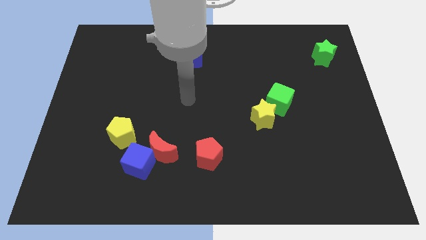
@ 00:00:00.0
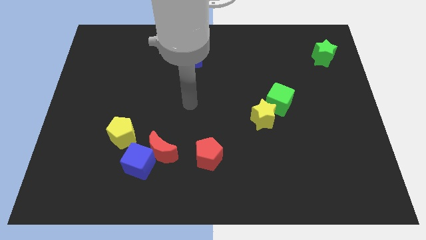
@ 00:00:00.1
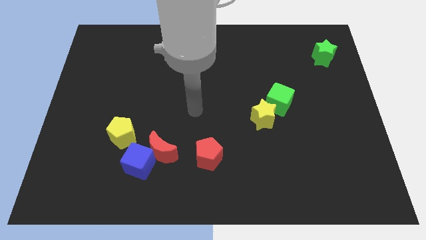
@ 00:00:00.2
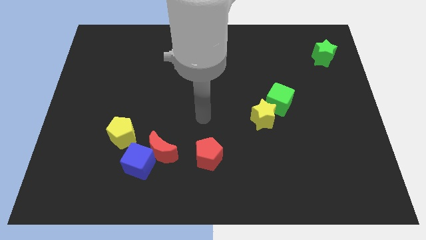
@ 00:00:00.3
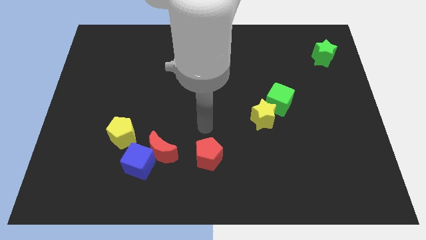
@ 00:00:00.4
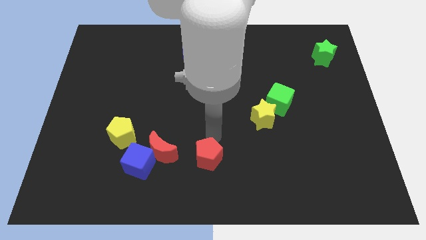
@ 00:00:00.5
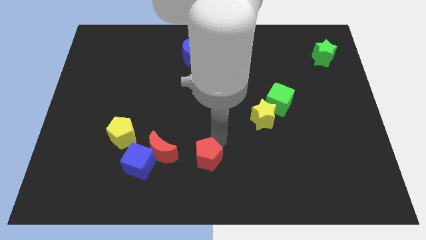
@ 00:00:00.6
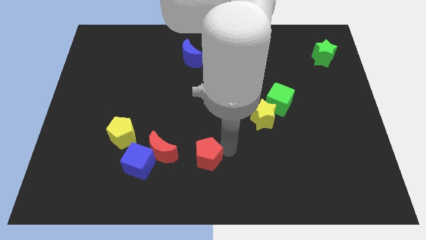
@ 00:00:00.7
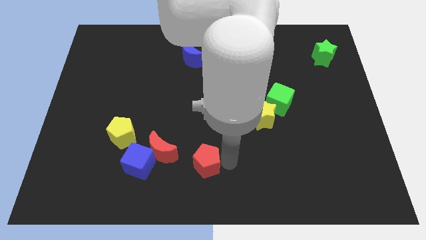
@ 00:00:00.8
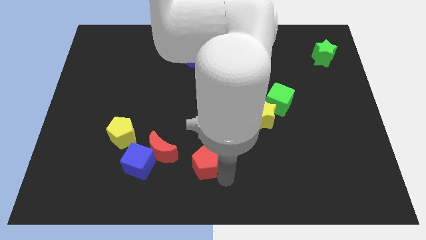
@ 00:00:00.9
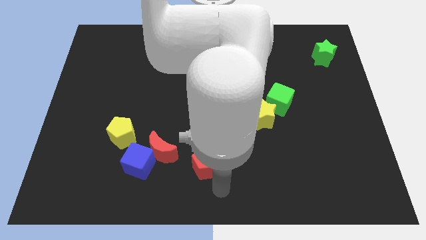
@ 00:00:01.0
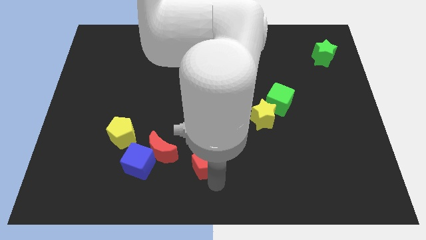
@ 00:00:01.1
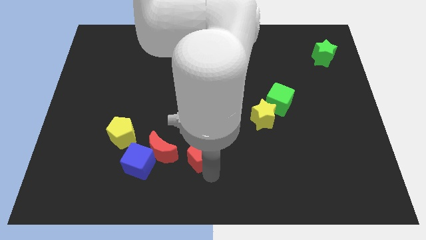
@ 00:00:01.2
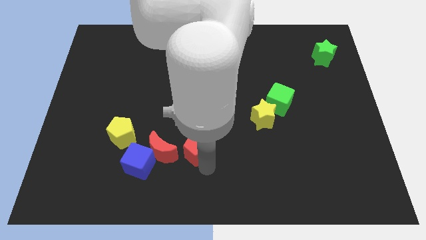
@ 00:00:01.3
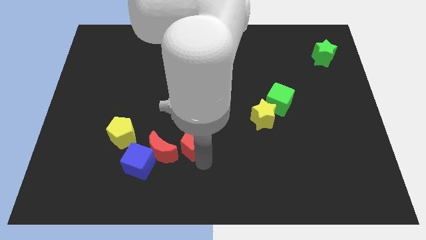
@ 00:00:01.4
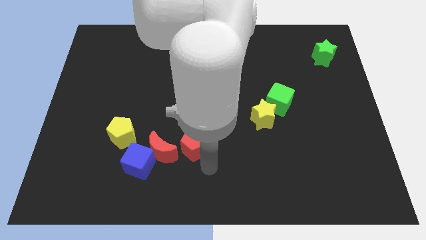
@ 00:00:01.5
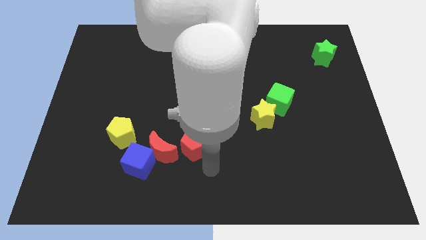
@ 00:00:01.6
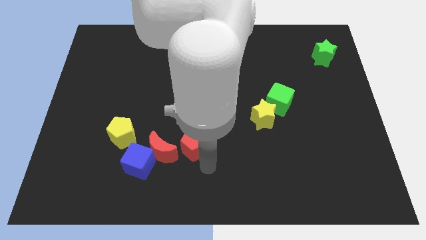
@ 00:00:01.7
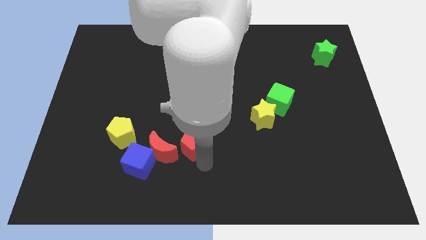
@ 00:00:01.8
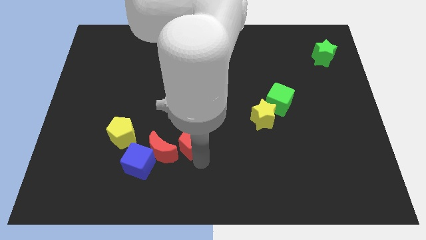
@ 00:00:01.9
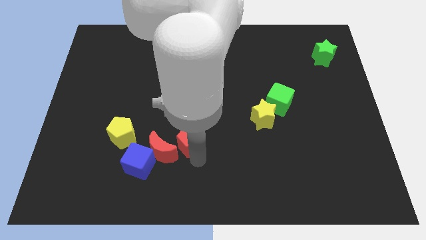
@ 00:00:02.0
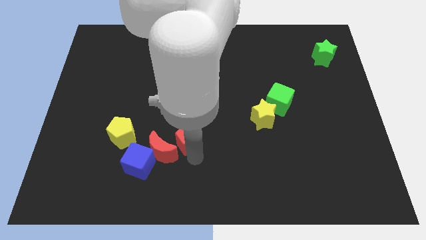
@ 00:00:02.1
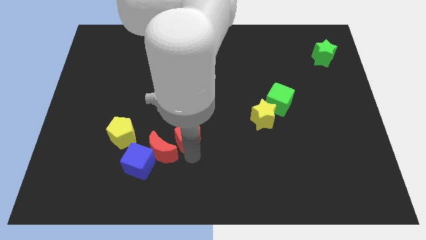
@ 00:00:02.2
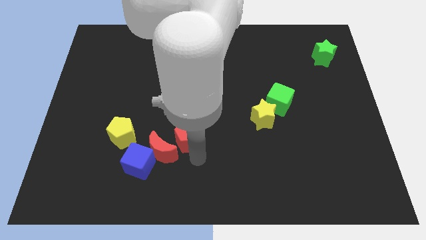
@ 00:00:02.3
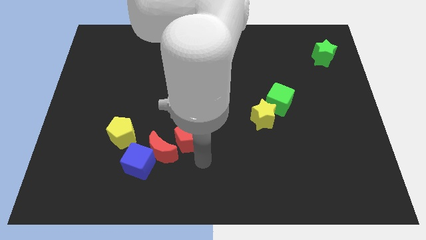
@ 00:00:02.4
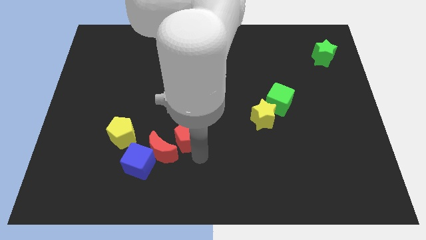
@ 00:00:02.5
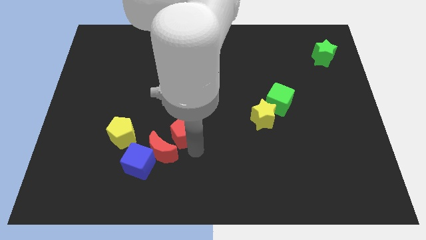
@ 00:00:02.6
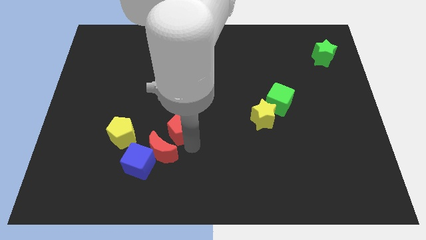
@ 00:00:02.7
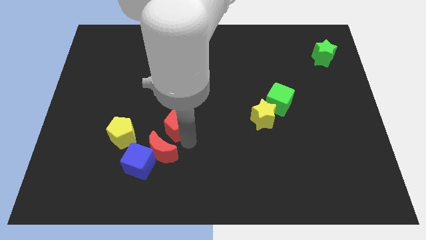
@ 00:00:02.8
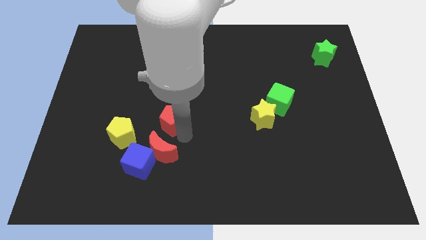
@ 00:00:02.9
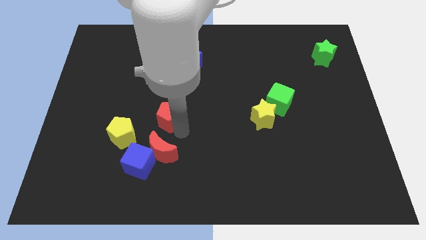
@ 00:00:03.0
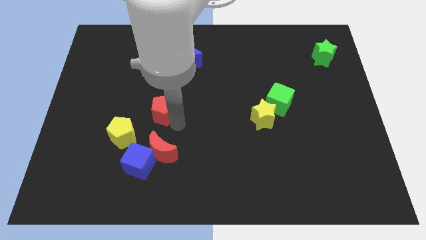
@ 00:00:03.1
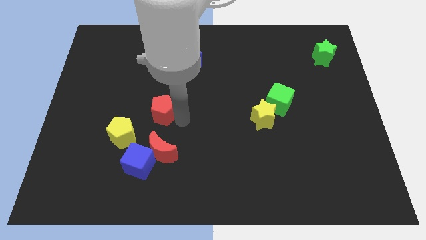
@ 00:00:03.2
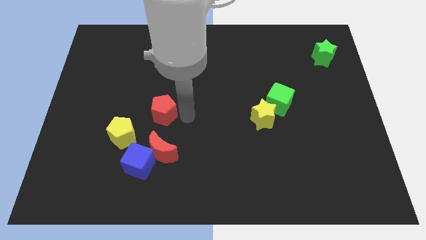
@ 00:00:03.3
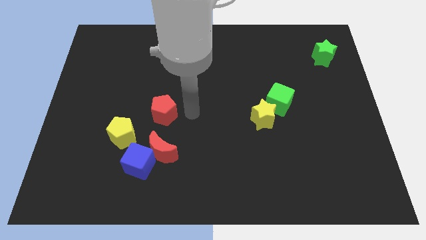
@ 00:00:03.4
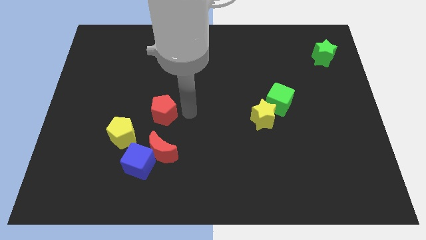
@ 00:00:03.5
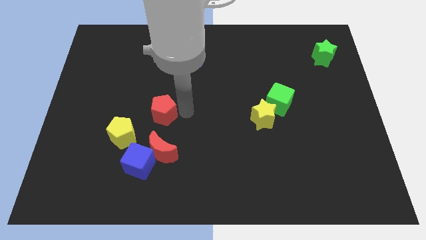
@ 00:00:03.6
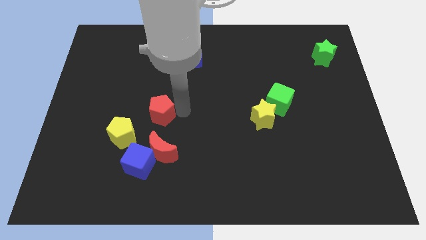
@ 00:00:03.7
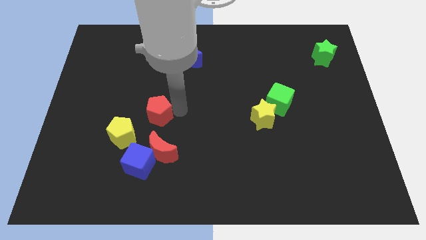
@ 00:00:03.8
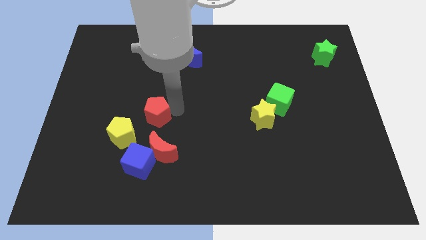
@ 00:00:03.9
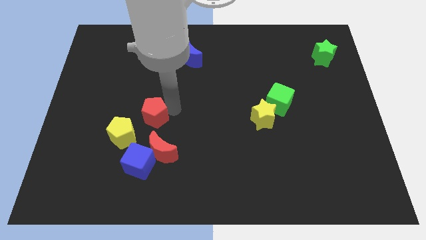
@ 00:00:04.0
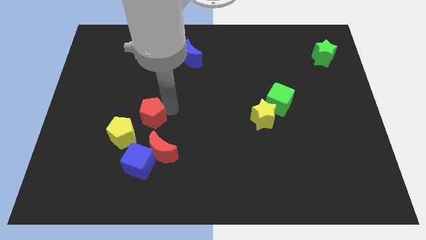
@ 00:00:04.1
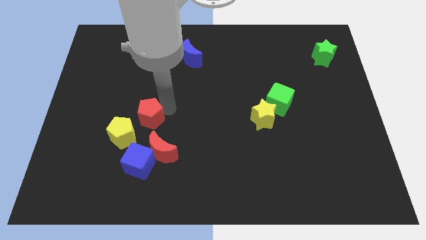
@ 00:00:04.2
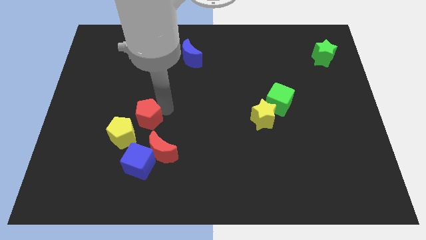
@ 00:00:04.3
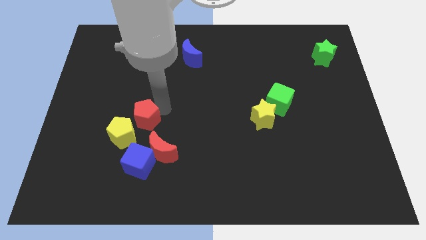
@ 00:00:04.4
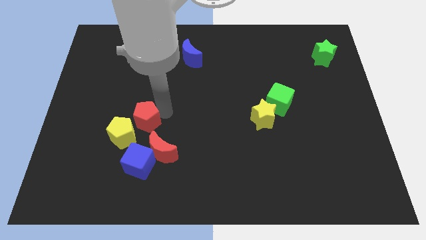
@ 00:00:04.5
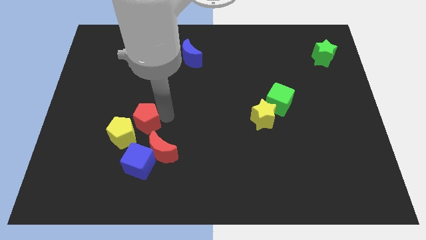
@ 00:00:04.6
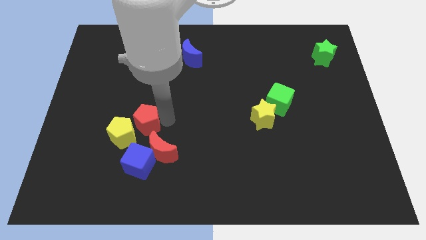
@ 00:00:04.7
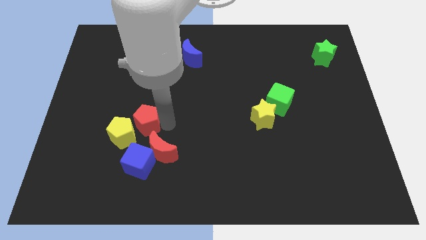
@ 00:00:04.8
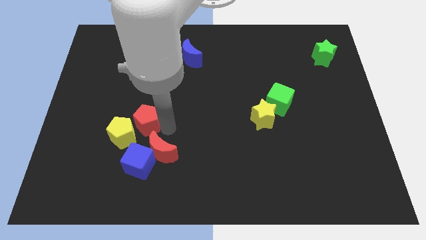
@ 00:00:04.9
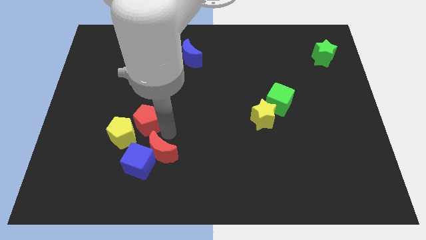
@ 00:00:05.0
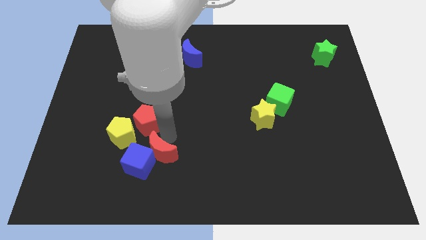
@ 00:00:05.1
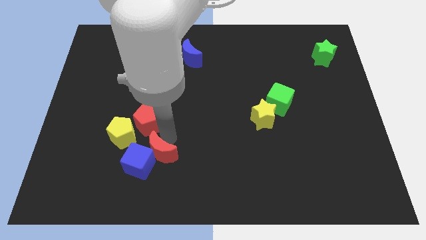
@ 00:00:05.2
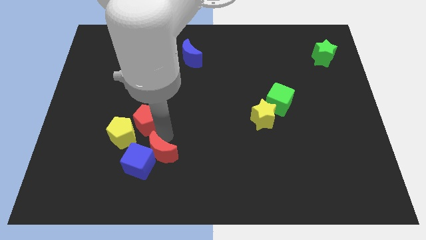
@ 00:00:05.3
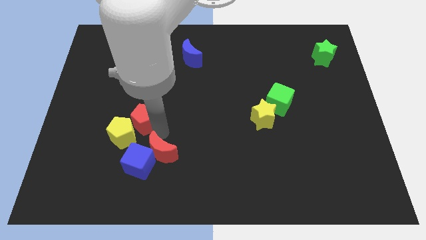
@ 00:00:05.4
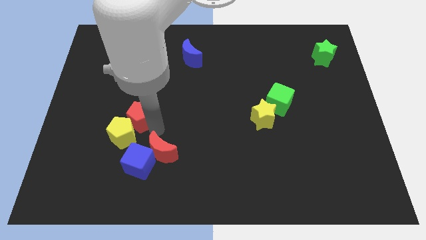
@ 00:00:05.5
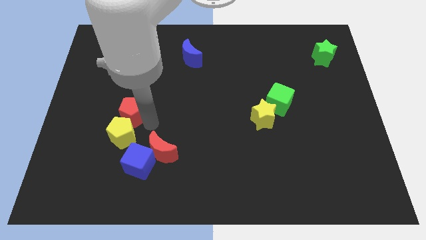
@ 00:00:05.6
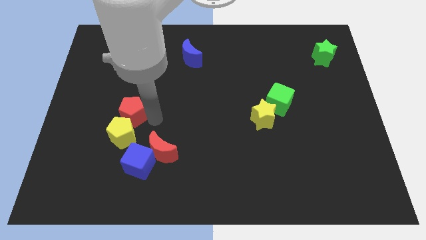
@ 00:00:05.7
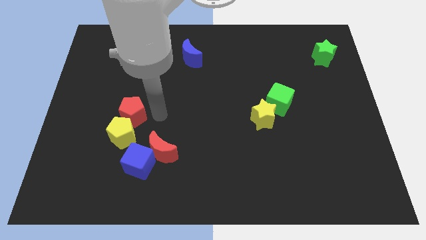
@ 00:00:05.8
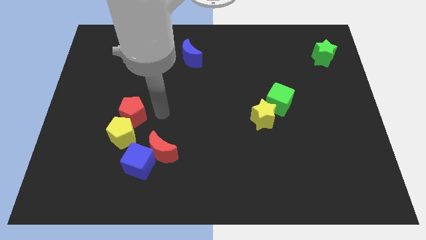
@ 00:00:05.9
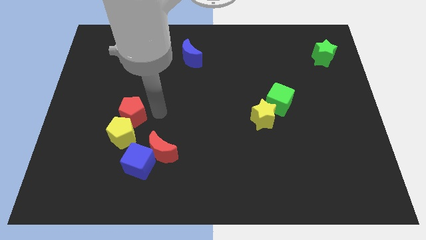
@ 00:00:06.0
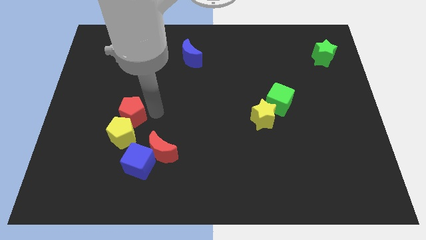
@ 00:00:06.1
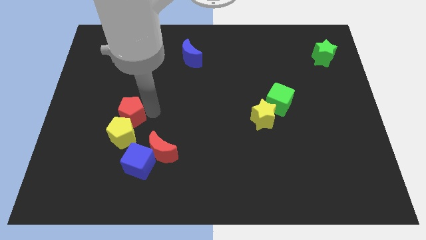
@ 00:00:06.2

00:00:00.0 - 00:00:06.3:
slide the red pentagon to the top left of the yellow pentagon

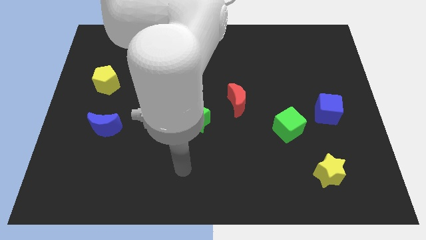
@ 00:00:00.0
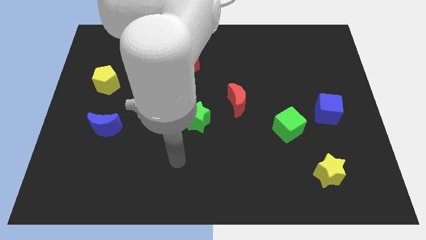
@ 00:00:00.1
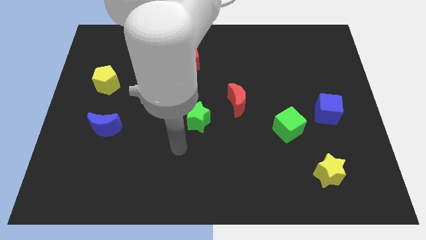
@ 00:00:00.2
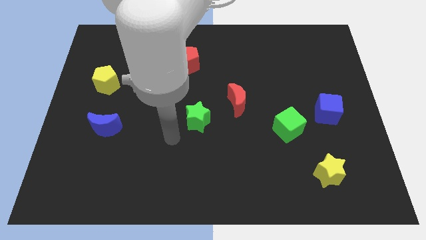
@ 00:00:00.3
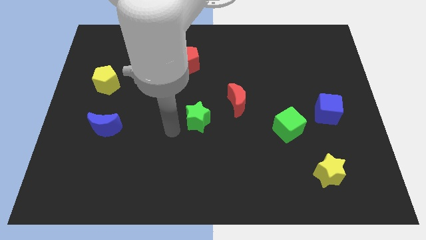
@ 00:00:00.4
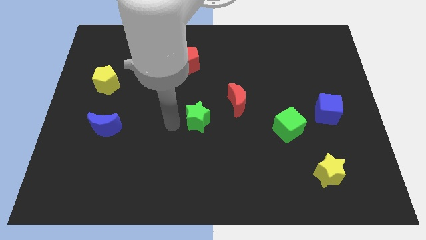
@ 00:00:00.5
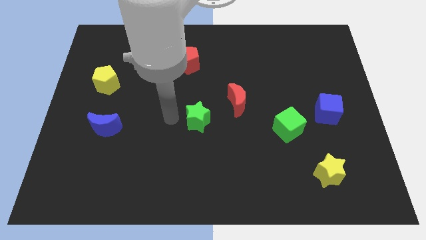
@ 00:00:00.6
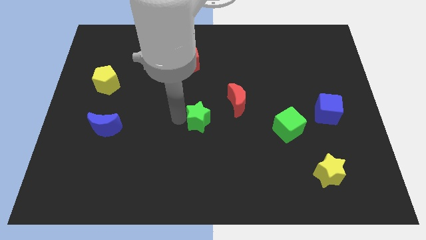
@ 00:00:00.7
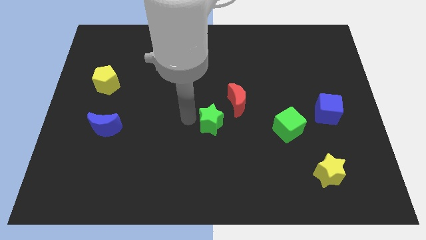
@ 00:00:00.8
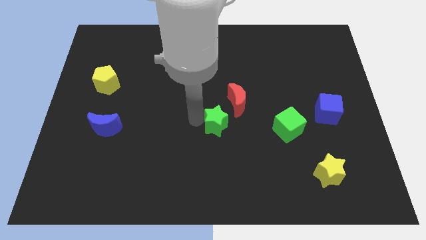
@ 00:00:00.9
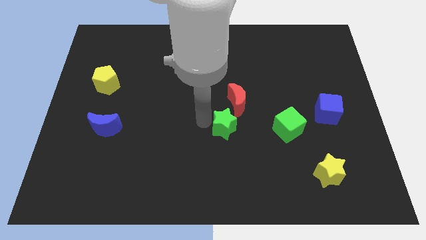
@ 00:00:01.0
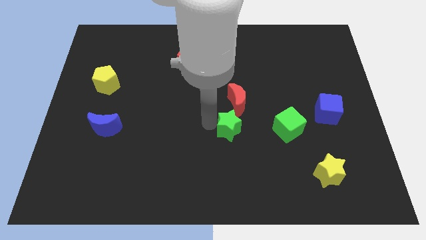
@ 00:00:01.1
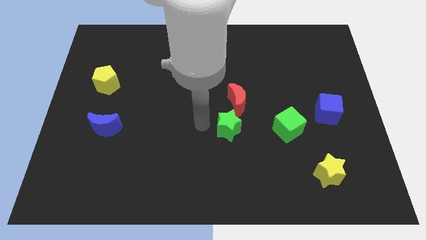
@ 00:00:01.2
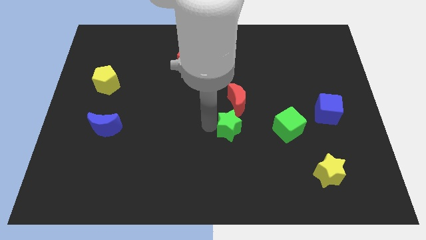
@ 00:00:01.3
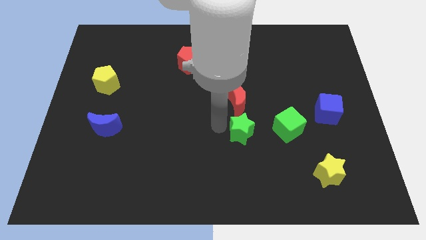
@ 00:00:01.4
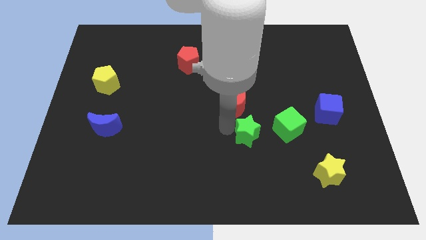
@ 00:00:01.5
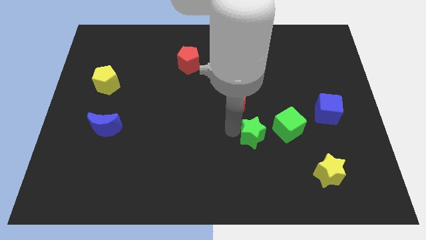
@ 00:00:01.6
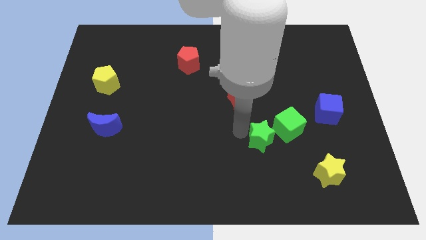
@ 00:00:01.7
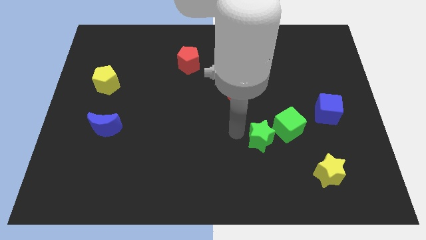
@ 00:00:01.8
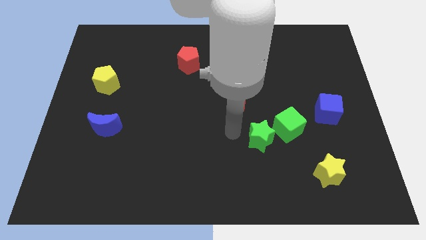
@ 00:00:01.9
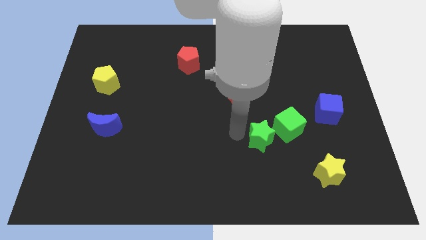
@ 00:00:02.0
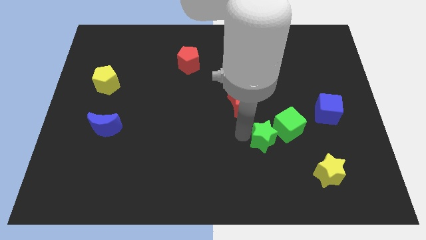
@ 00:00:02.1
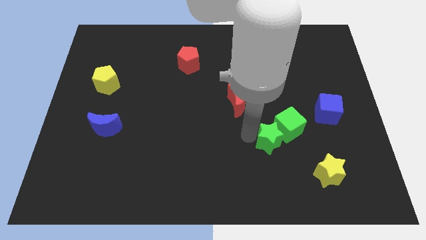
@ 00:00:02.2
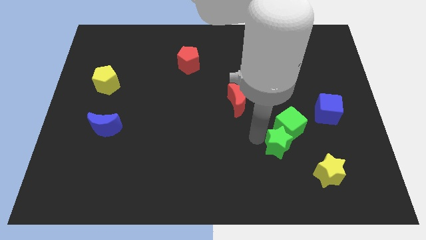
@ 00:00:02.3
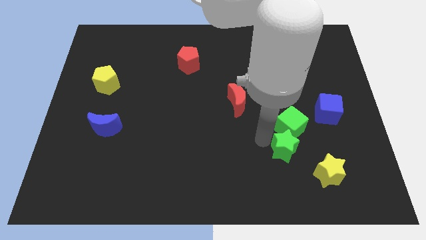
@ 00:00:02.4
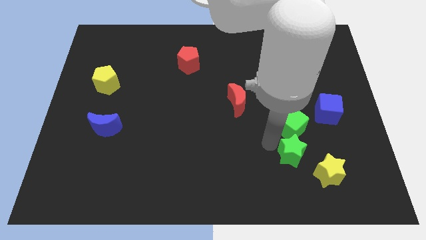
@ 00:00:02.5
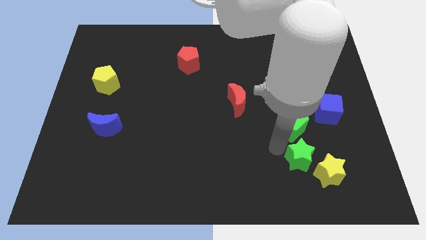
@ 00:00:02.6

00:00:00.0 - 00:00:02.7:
put the green star diagonally down and to the right of the green cube
